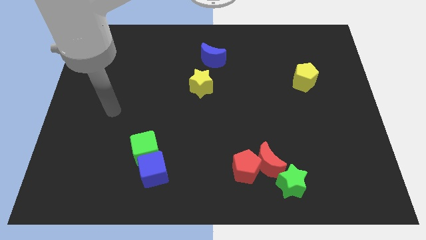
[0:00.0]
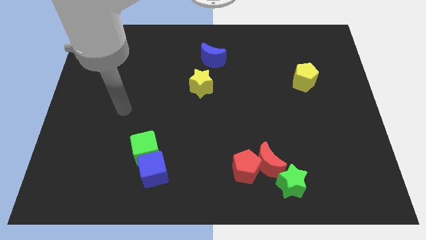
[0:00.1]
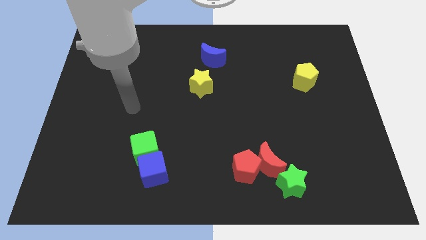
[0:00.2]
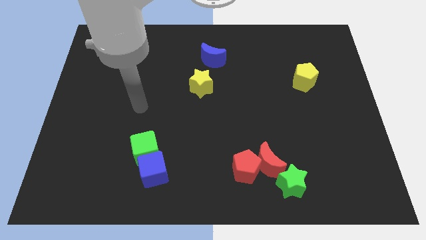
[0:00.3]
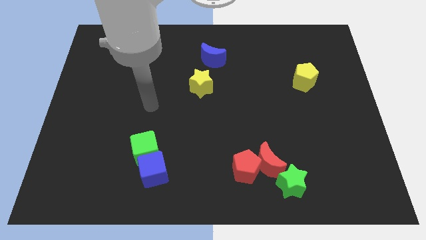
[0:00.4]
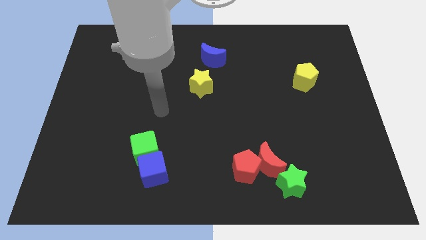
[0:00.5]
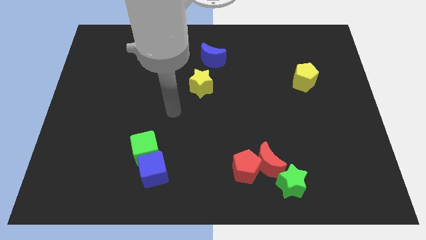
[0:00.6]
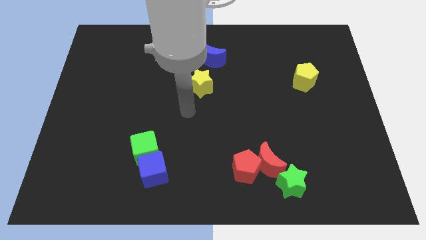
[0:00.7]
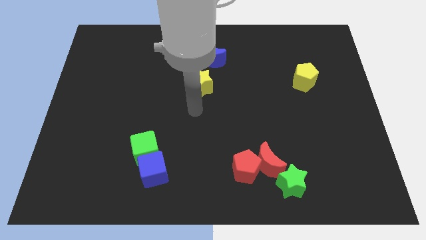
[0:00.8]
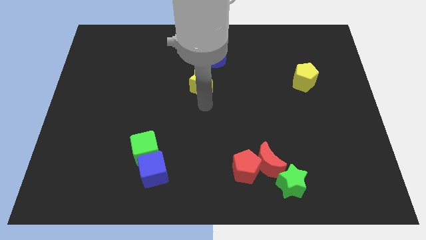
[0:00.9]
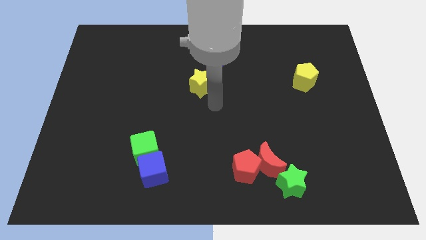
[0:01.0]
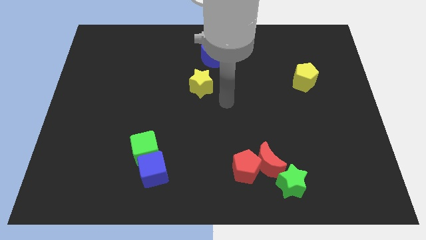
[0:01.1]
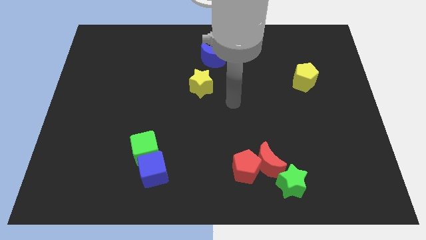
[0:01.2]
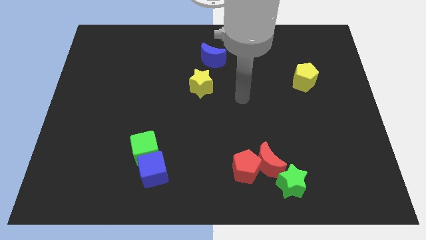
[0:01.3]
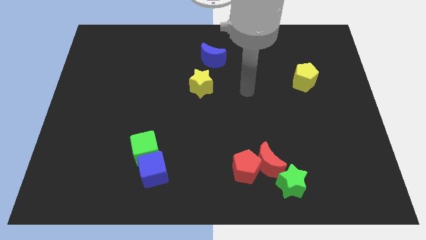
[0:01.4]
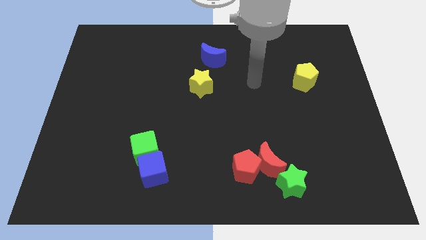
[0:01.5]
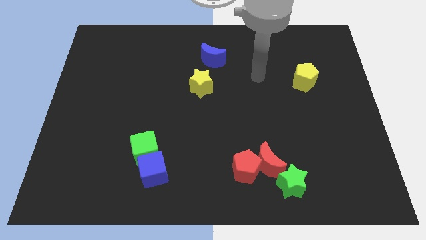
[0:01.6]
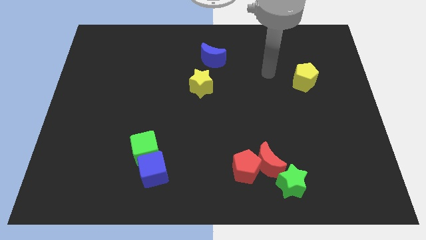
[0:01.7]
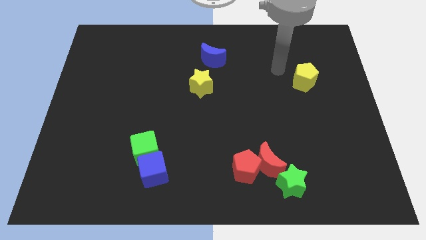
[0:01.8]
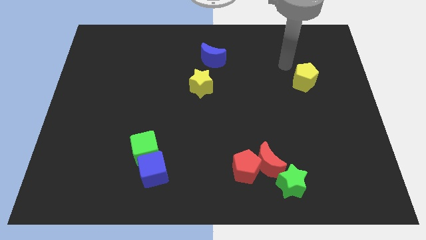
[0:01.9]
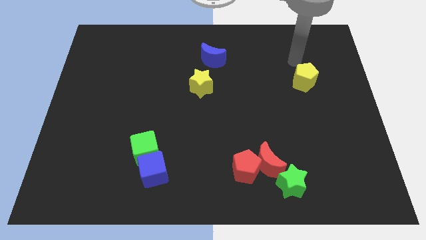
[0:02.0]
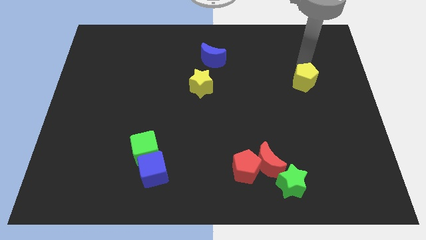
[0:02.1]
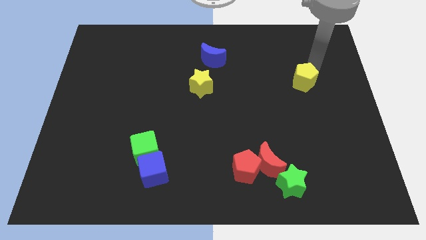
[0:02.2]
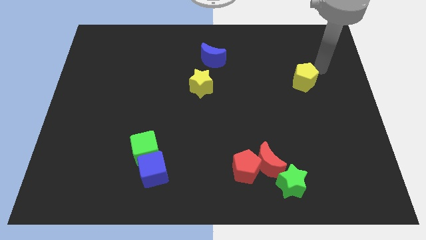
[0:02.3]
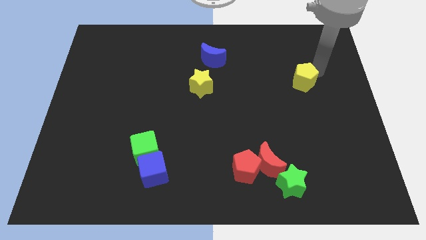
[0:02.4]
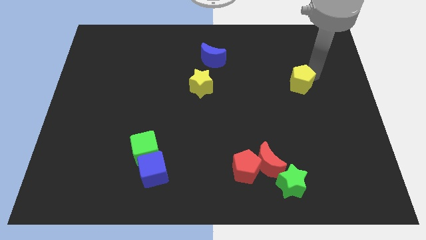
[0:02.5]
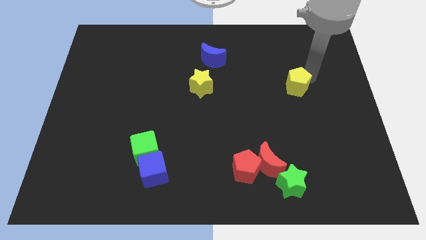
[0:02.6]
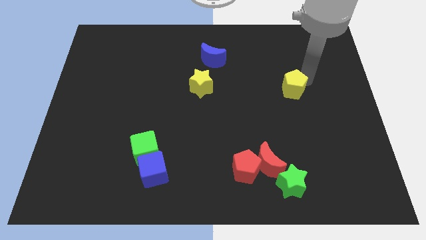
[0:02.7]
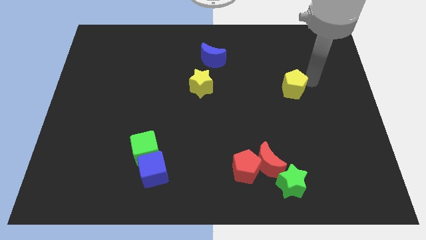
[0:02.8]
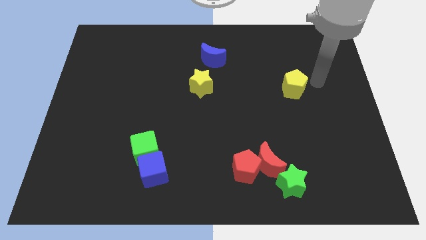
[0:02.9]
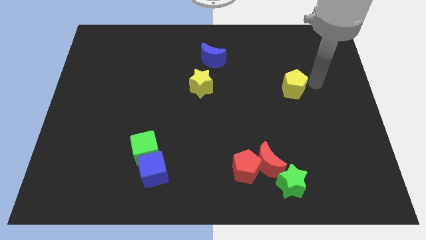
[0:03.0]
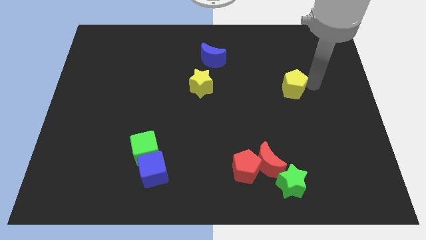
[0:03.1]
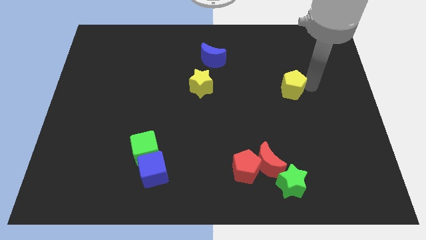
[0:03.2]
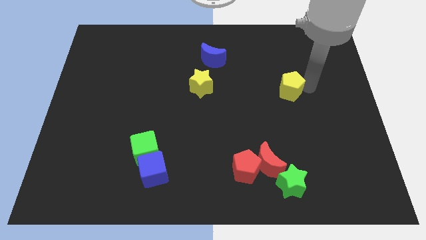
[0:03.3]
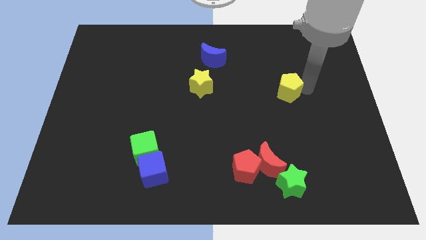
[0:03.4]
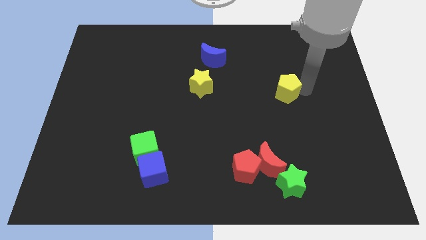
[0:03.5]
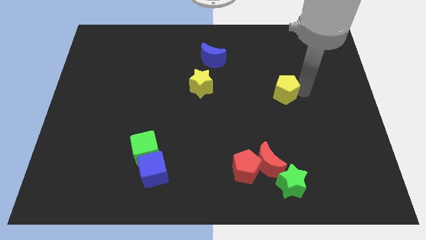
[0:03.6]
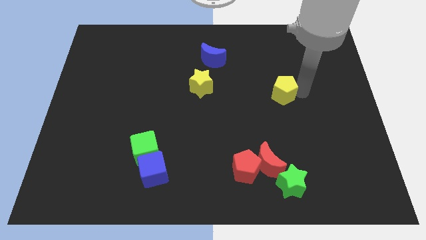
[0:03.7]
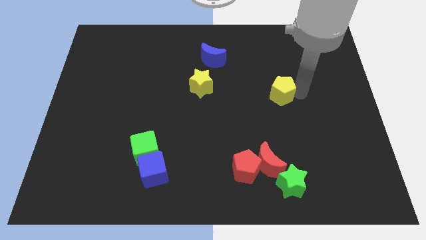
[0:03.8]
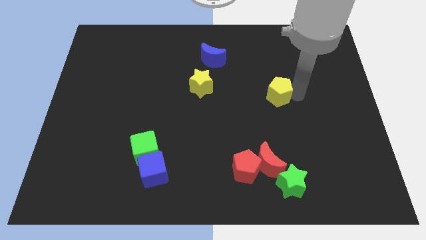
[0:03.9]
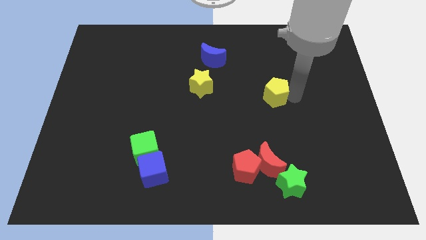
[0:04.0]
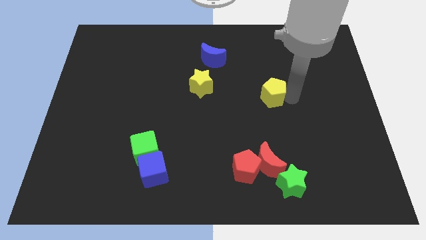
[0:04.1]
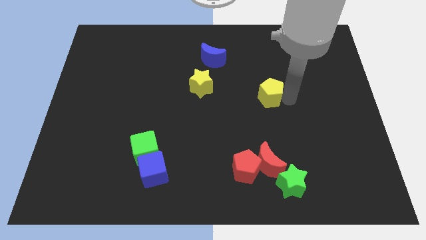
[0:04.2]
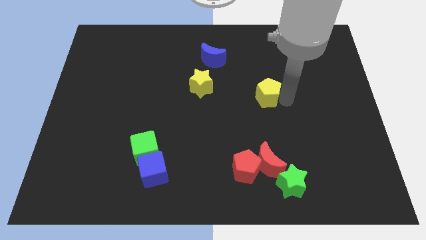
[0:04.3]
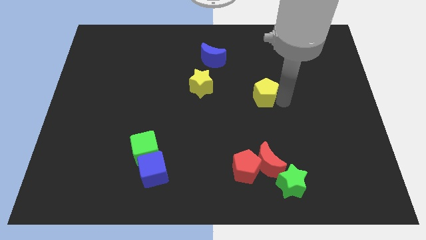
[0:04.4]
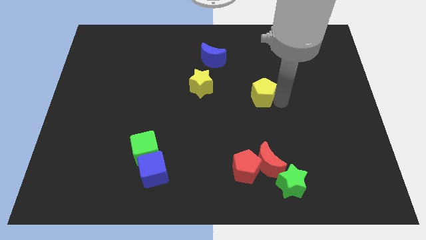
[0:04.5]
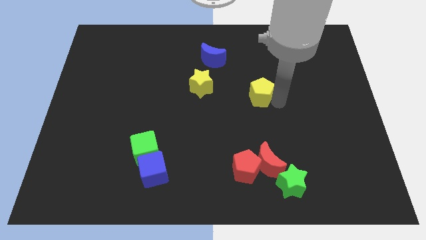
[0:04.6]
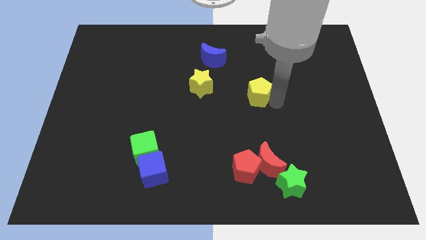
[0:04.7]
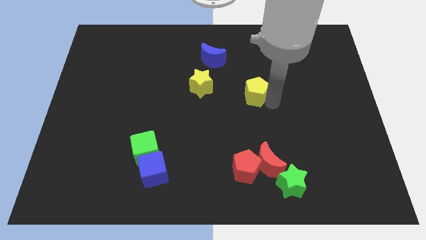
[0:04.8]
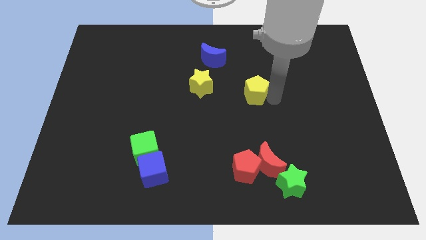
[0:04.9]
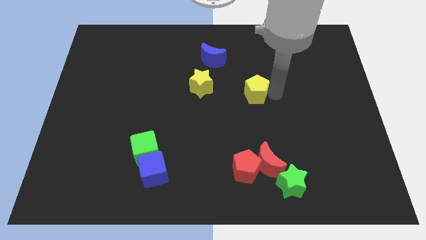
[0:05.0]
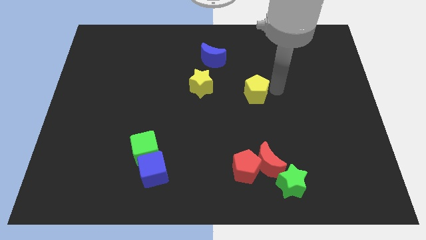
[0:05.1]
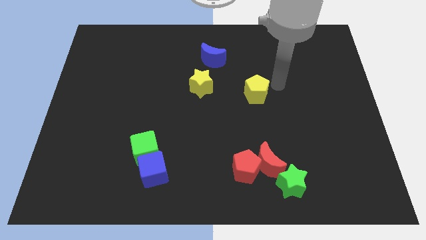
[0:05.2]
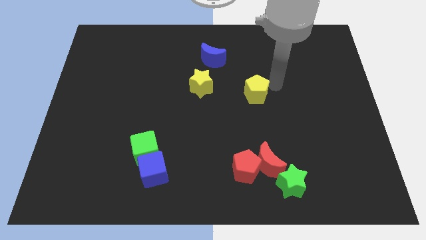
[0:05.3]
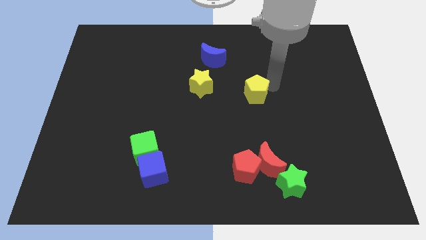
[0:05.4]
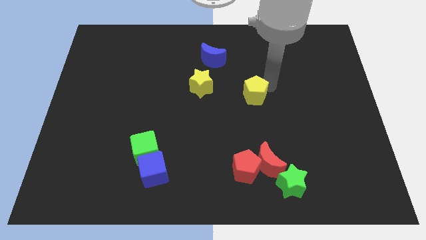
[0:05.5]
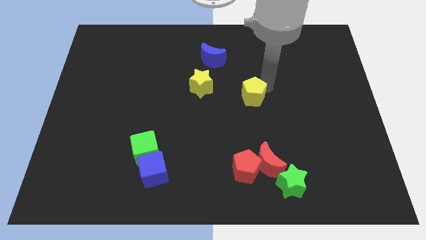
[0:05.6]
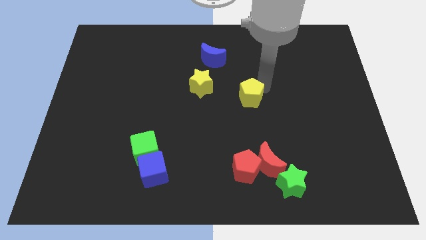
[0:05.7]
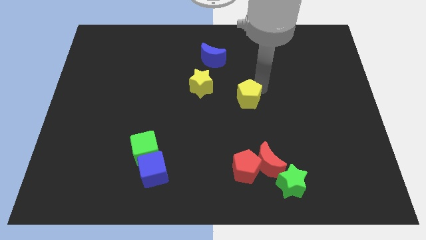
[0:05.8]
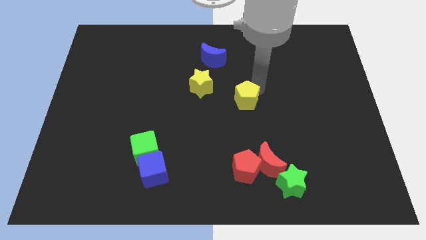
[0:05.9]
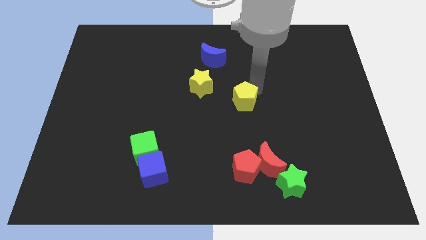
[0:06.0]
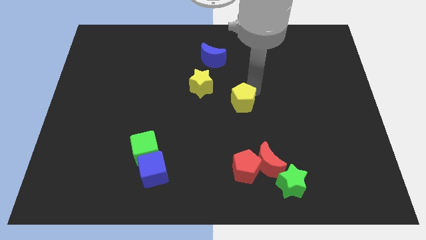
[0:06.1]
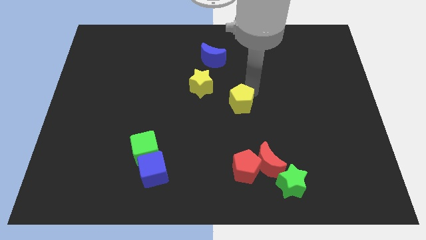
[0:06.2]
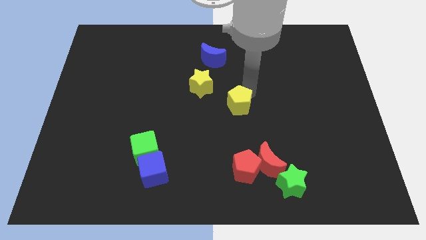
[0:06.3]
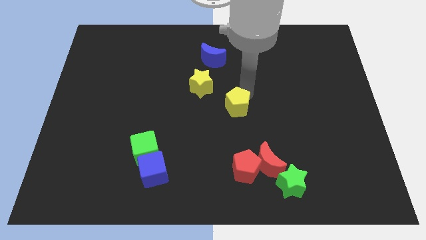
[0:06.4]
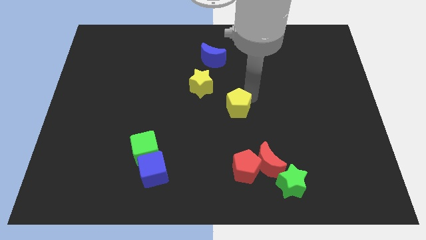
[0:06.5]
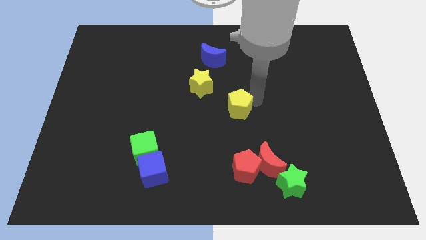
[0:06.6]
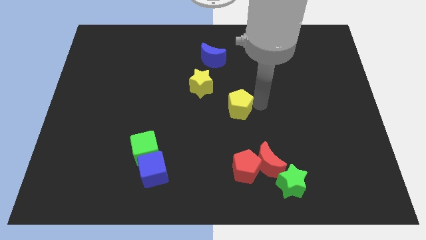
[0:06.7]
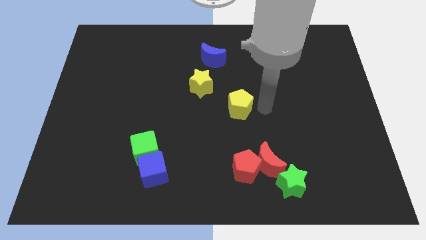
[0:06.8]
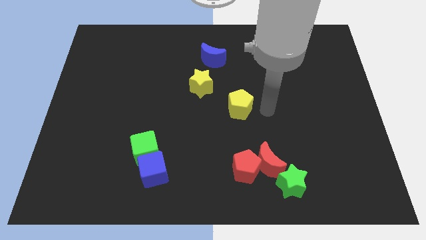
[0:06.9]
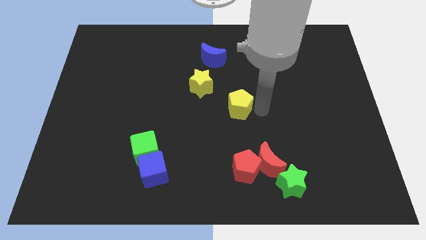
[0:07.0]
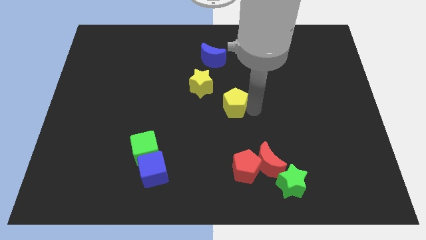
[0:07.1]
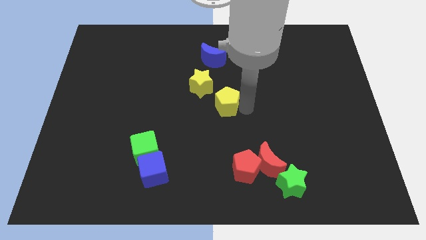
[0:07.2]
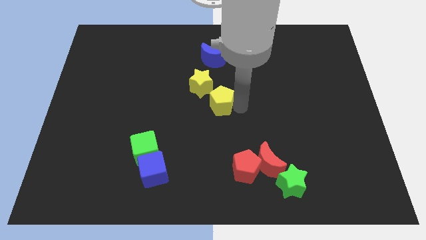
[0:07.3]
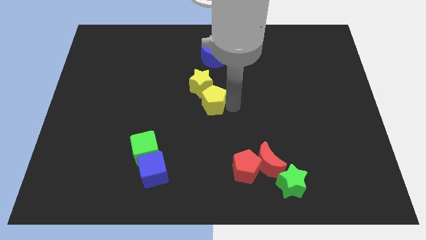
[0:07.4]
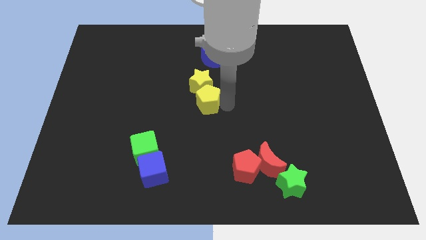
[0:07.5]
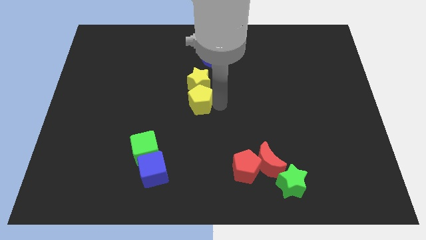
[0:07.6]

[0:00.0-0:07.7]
slide the yellow pentagon diagonally down and to the left of the yellow star
